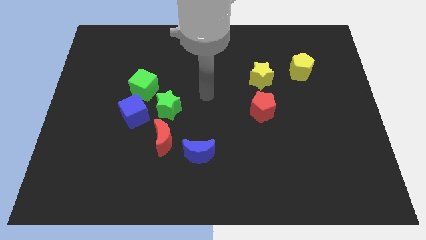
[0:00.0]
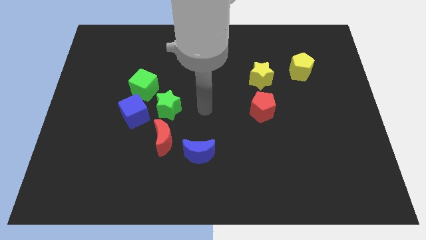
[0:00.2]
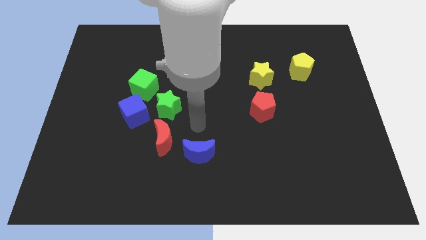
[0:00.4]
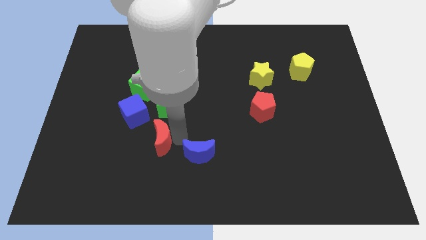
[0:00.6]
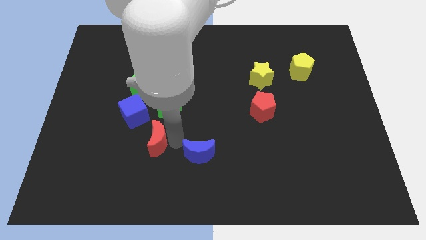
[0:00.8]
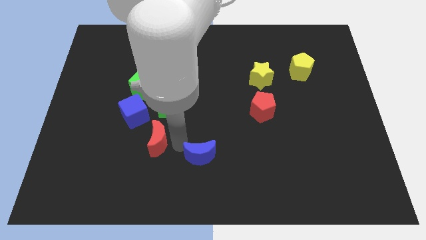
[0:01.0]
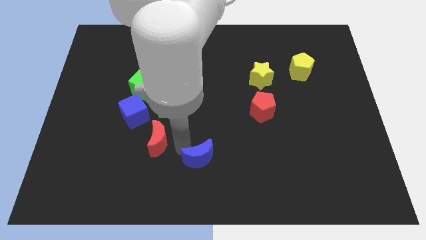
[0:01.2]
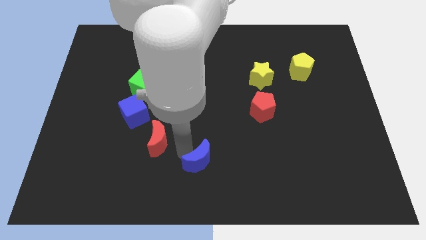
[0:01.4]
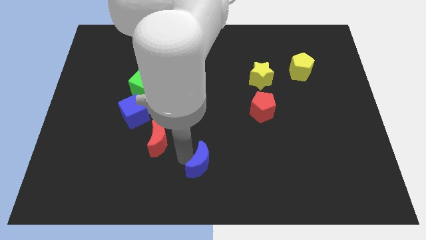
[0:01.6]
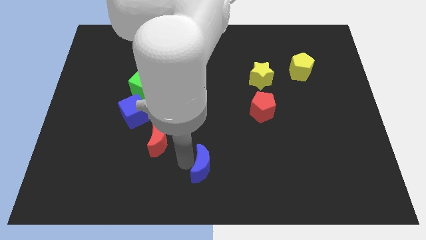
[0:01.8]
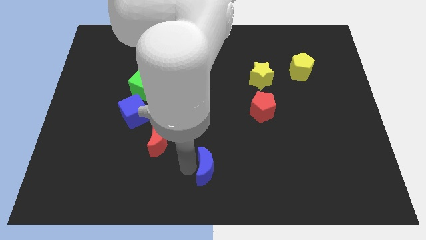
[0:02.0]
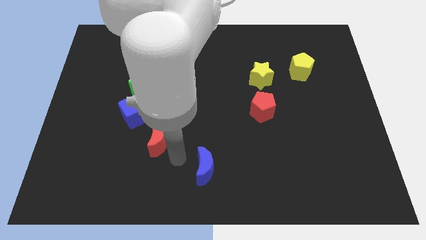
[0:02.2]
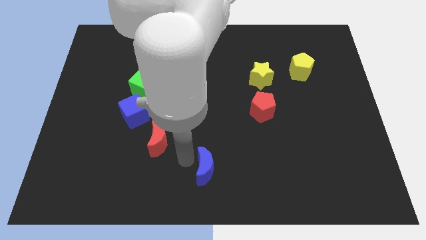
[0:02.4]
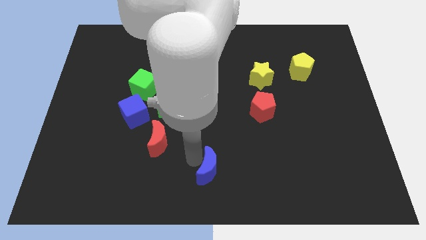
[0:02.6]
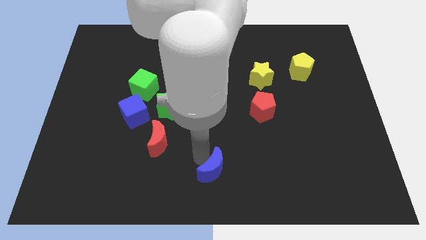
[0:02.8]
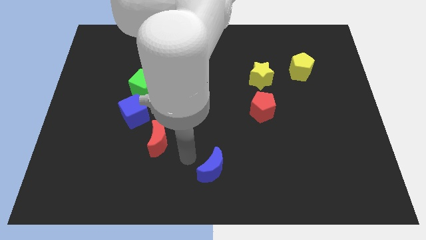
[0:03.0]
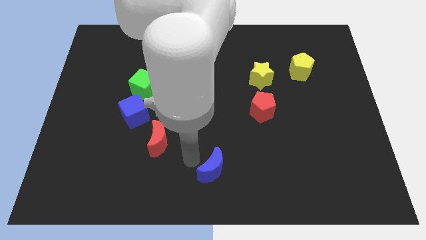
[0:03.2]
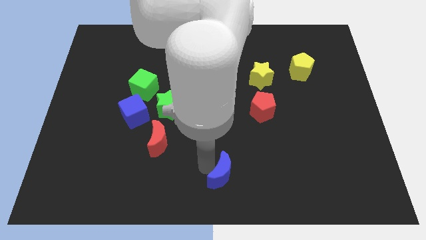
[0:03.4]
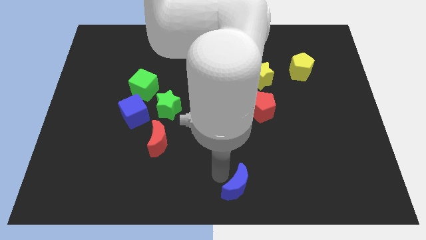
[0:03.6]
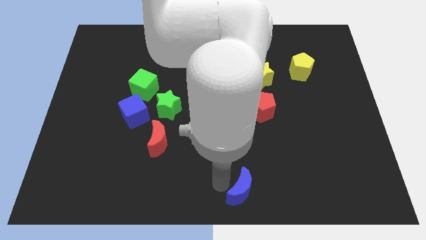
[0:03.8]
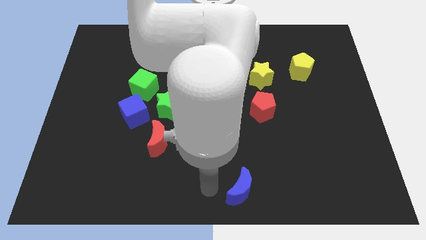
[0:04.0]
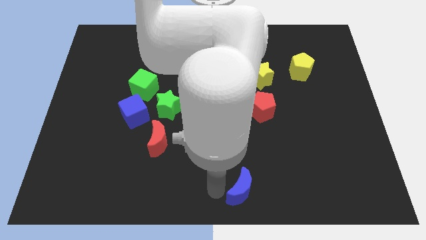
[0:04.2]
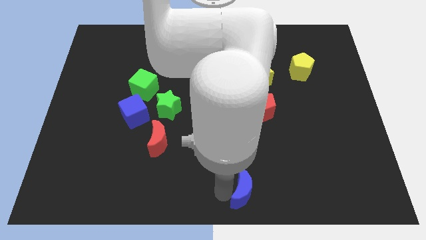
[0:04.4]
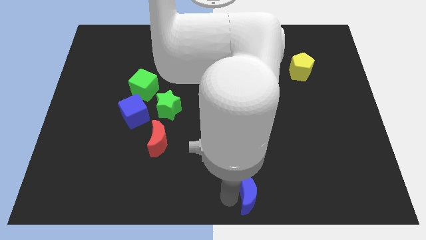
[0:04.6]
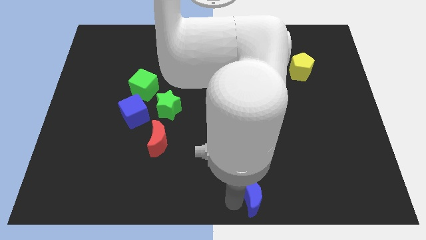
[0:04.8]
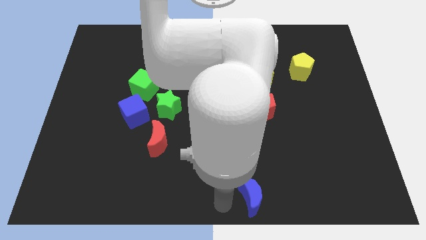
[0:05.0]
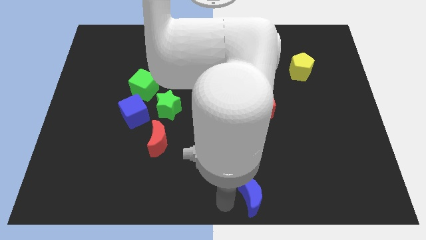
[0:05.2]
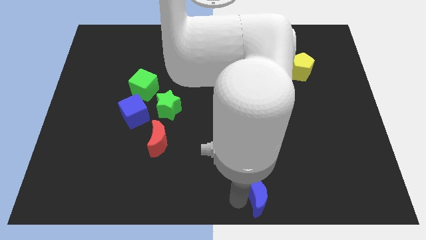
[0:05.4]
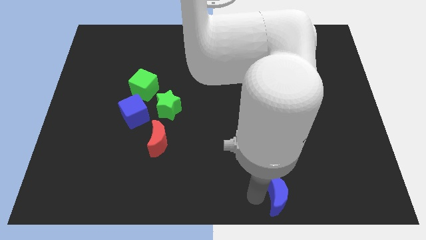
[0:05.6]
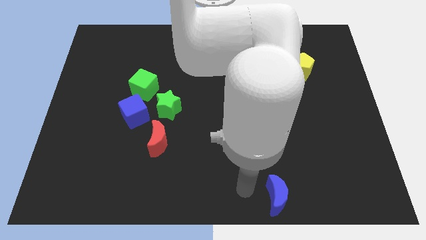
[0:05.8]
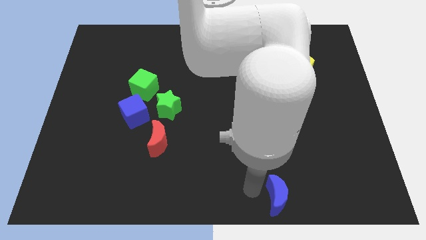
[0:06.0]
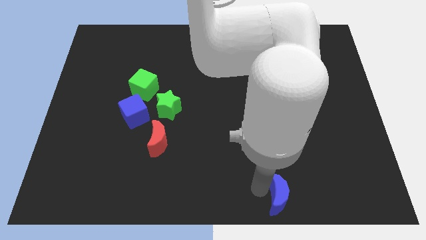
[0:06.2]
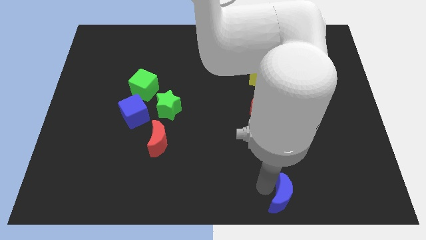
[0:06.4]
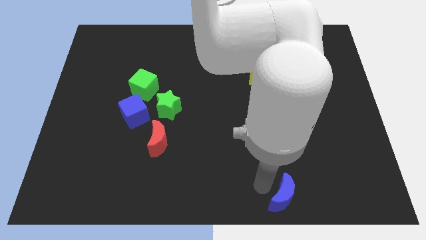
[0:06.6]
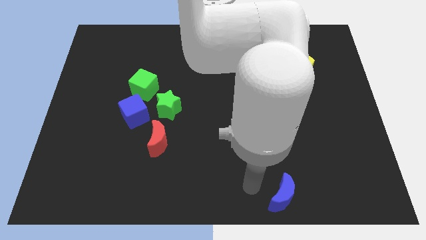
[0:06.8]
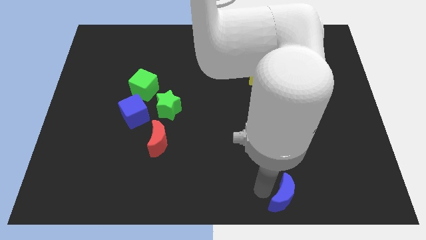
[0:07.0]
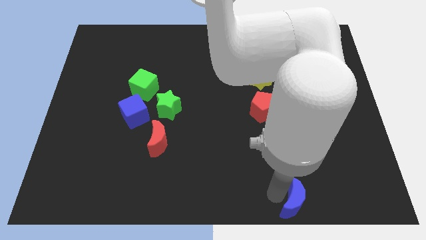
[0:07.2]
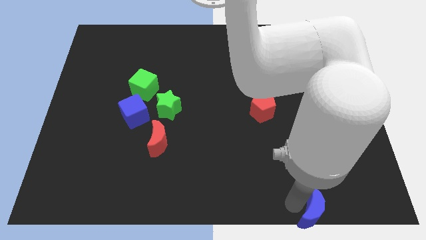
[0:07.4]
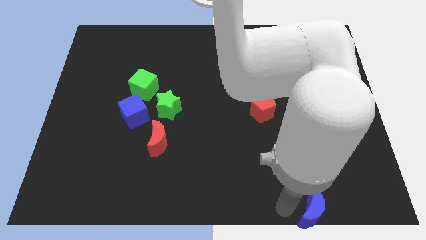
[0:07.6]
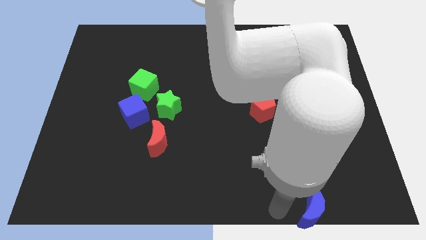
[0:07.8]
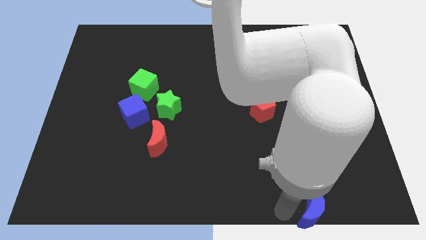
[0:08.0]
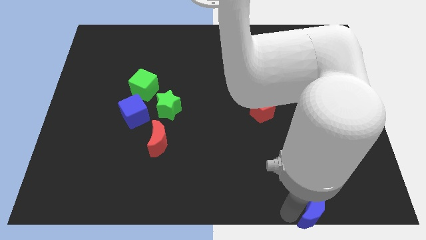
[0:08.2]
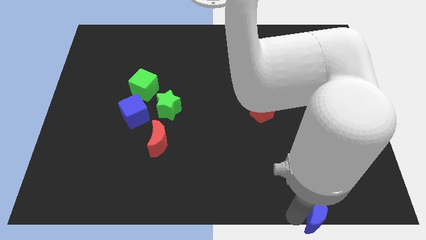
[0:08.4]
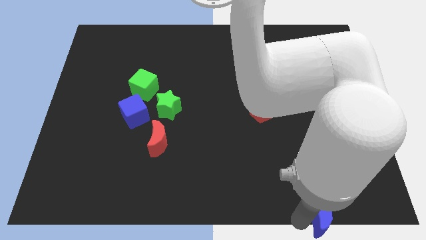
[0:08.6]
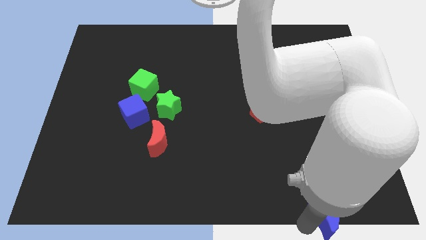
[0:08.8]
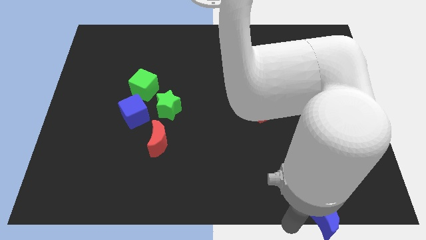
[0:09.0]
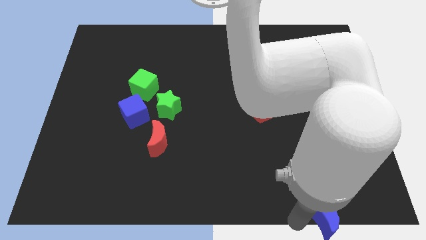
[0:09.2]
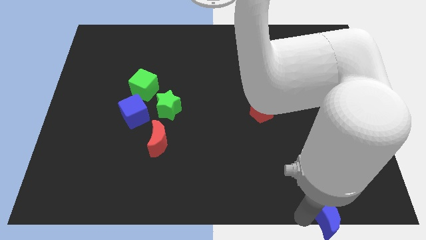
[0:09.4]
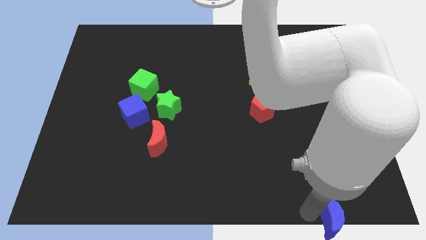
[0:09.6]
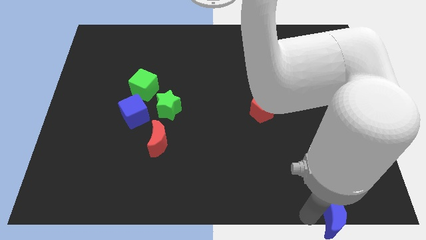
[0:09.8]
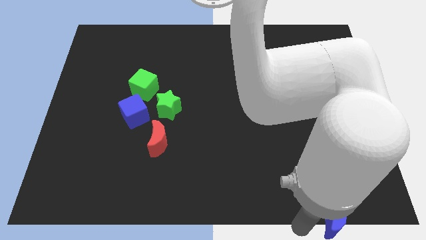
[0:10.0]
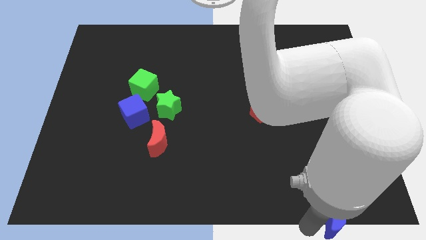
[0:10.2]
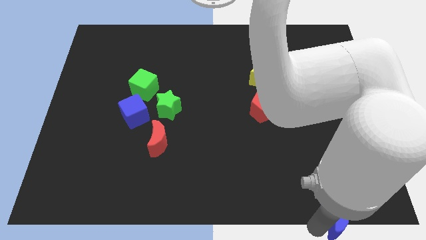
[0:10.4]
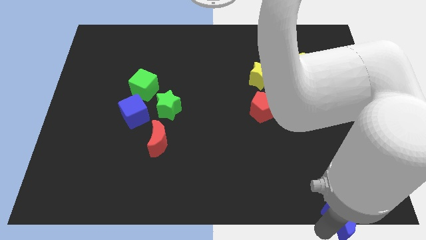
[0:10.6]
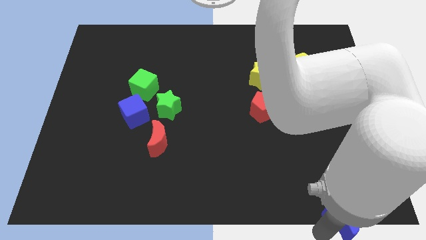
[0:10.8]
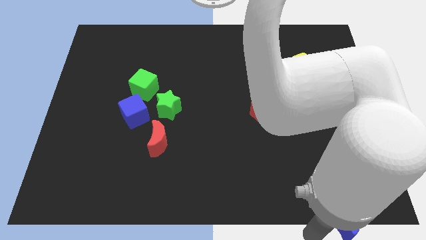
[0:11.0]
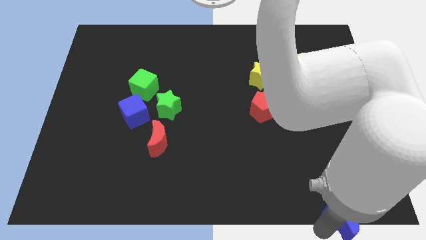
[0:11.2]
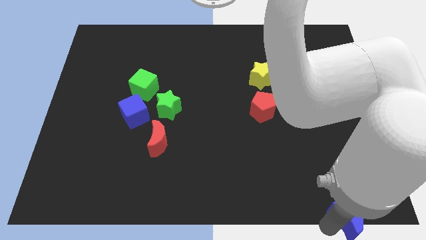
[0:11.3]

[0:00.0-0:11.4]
slide the blue moon to the lower right corner
